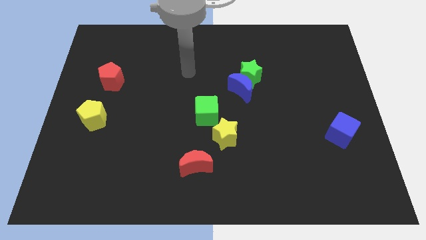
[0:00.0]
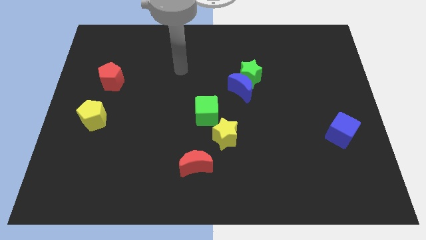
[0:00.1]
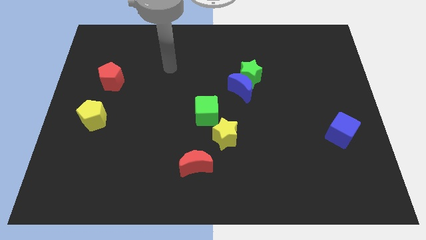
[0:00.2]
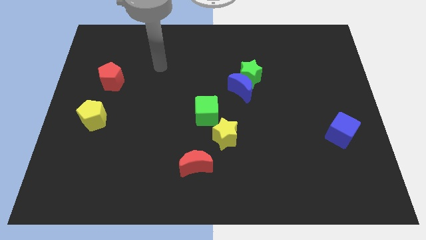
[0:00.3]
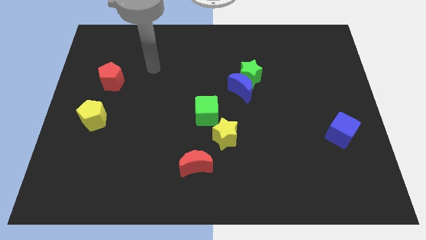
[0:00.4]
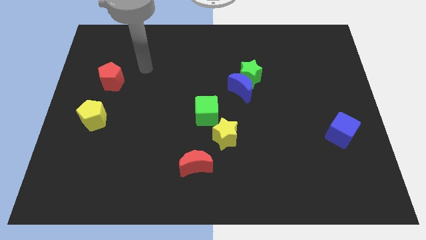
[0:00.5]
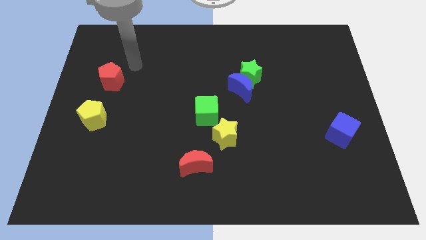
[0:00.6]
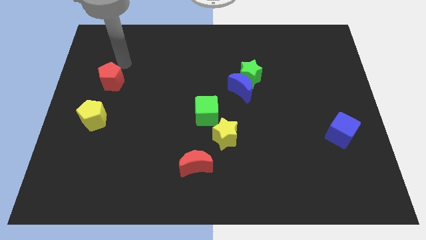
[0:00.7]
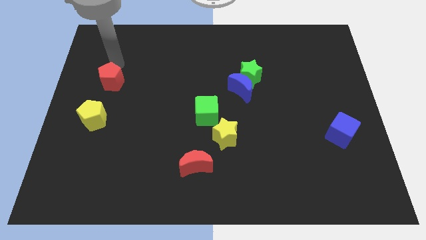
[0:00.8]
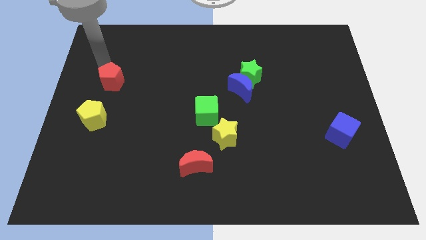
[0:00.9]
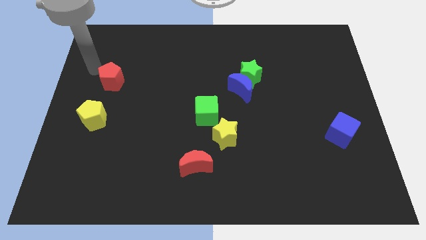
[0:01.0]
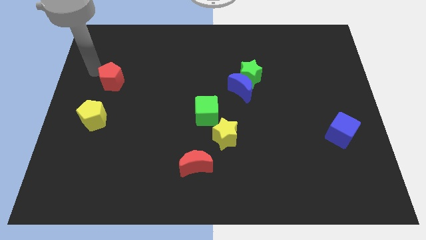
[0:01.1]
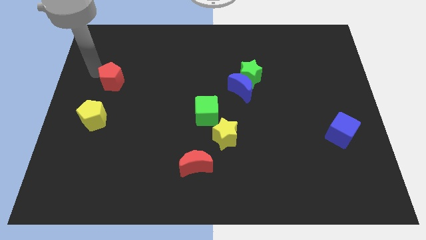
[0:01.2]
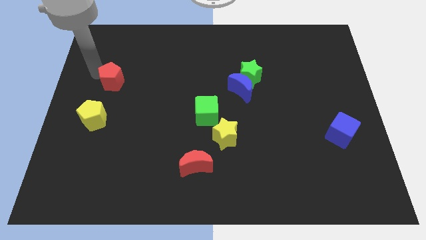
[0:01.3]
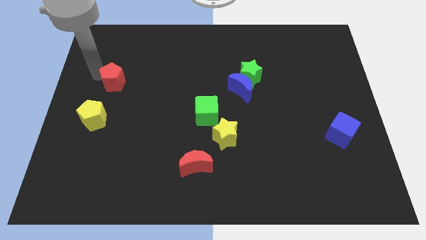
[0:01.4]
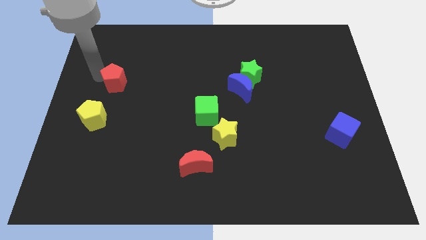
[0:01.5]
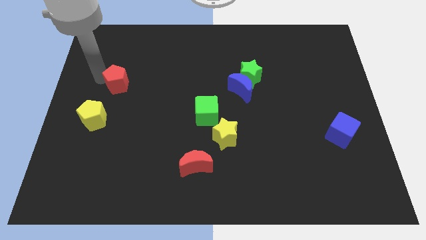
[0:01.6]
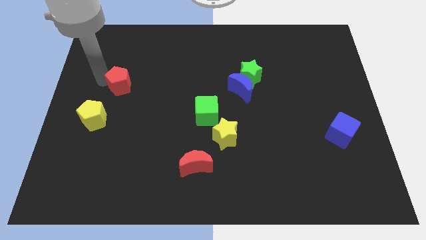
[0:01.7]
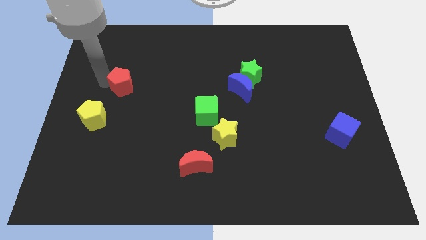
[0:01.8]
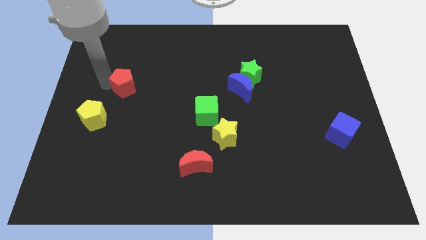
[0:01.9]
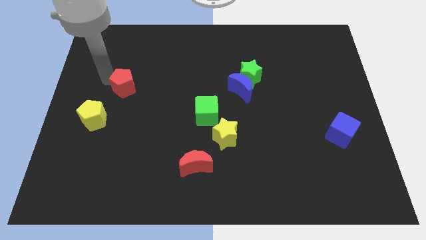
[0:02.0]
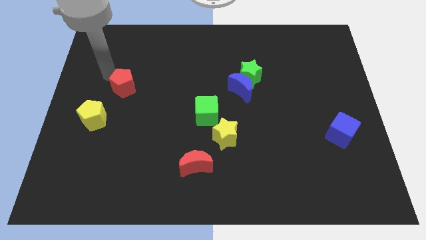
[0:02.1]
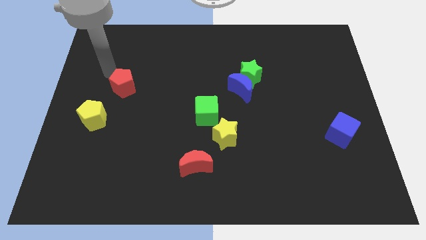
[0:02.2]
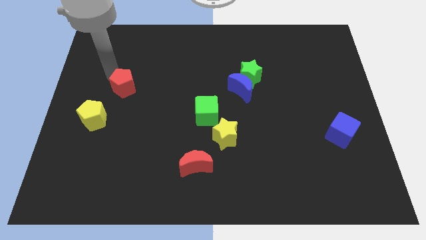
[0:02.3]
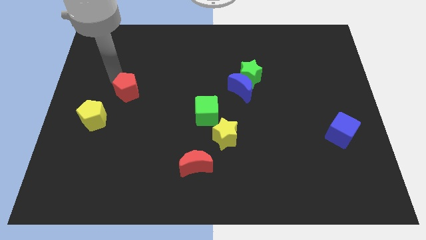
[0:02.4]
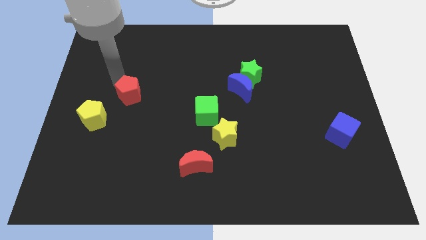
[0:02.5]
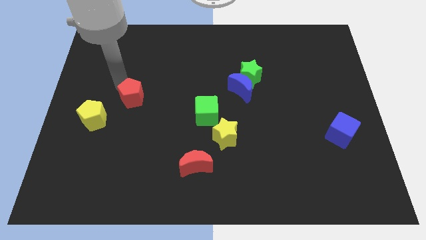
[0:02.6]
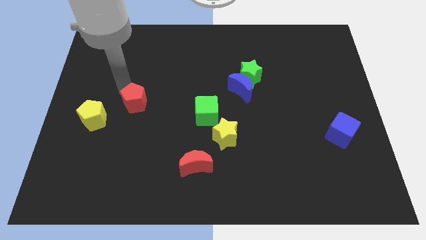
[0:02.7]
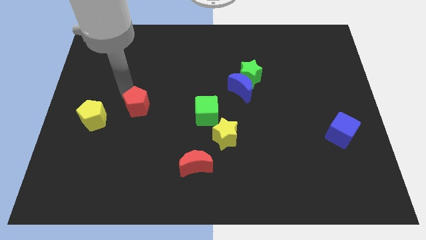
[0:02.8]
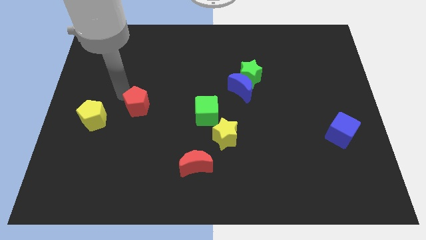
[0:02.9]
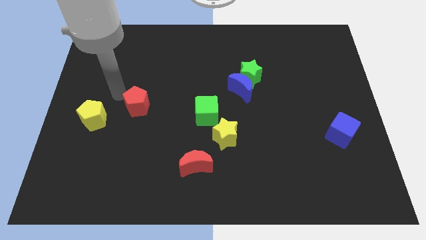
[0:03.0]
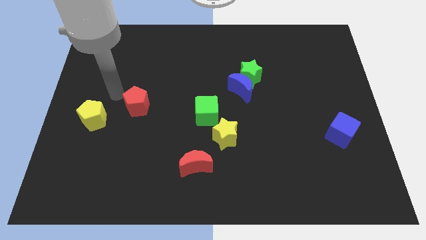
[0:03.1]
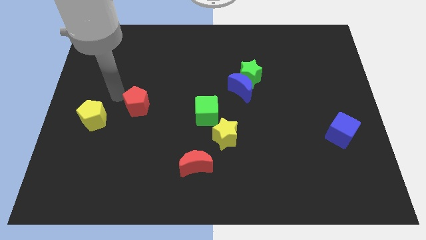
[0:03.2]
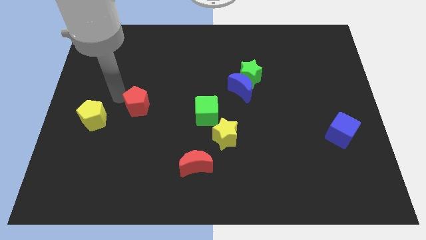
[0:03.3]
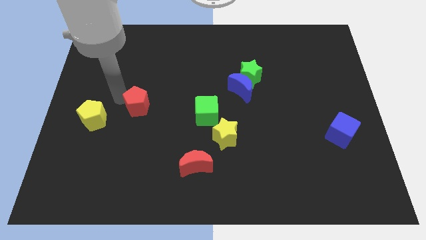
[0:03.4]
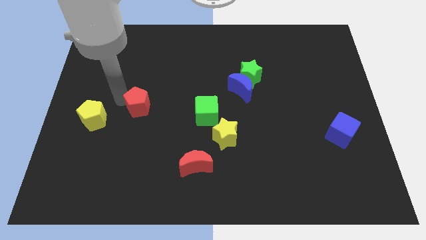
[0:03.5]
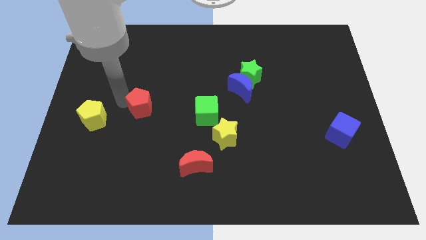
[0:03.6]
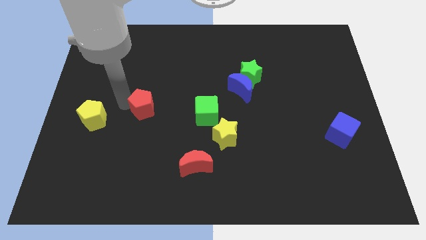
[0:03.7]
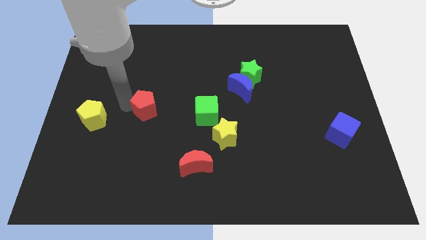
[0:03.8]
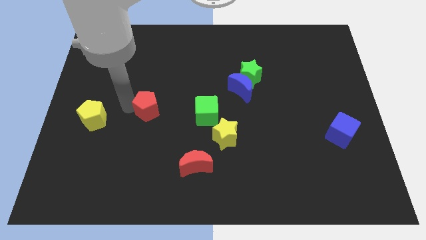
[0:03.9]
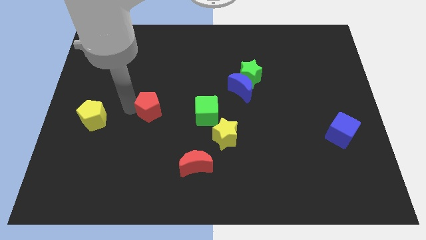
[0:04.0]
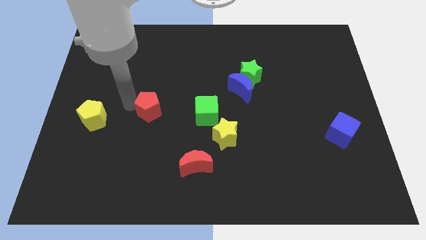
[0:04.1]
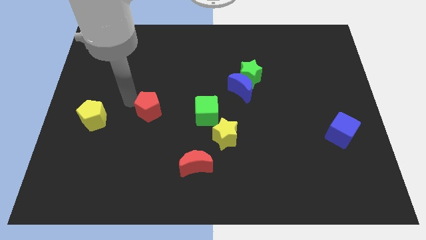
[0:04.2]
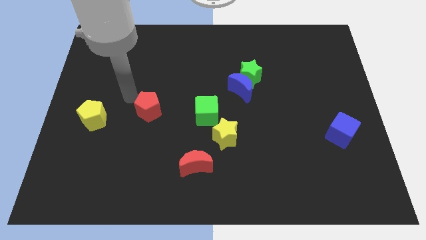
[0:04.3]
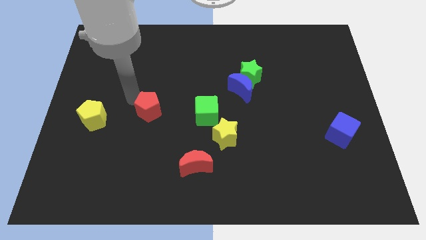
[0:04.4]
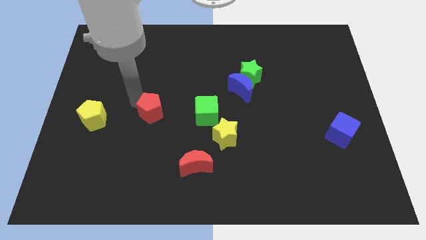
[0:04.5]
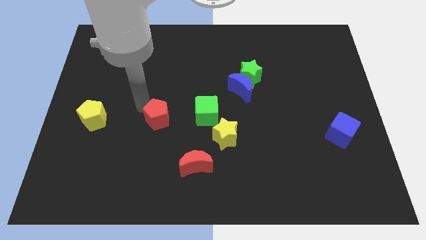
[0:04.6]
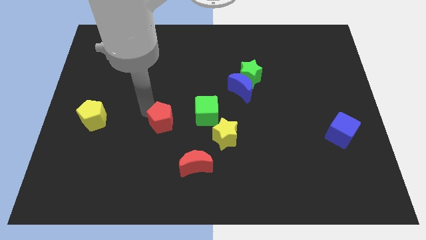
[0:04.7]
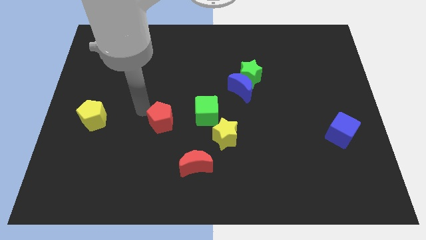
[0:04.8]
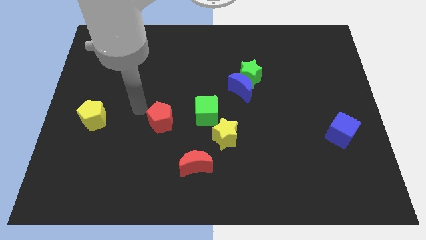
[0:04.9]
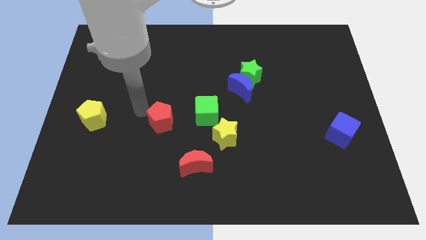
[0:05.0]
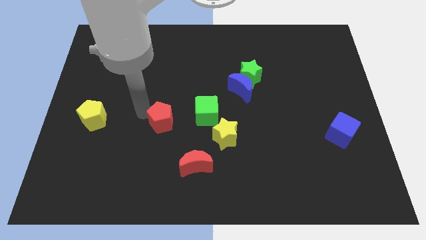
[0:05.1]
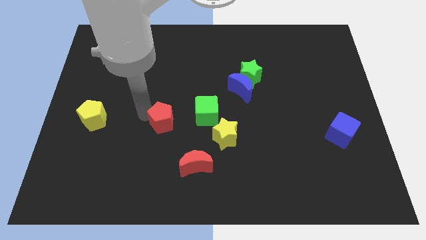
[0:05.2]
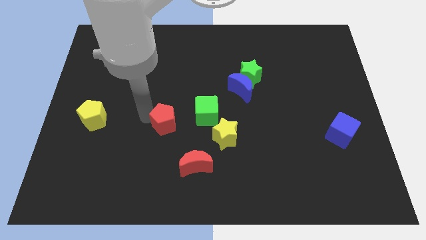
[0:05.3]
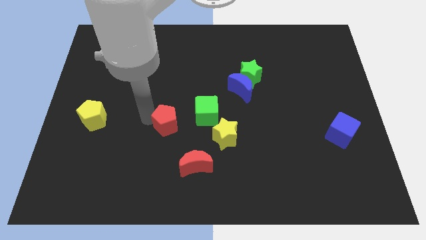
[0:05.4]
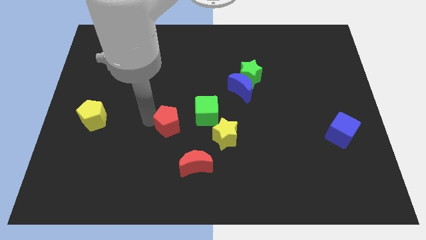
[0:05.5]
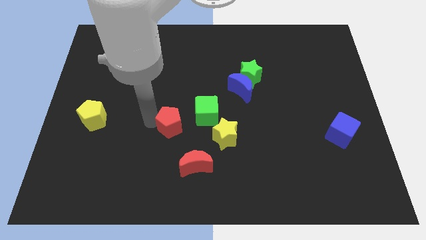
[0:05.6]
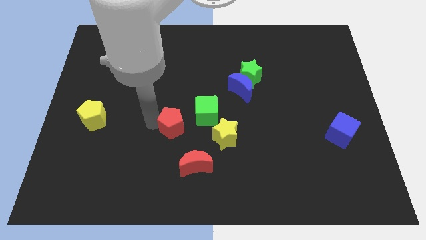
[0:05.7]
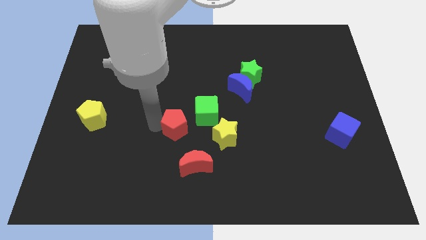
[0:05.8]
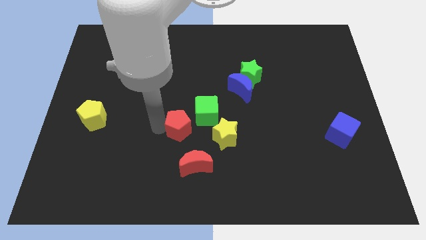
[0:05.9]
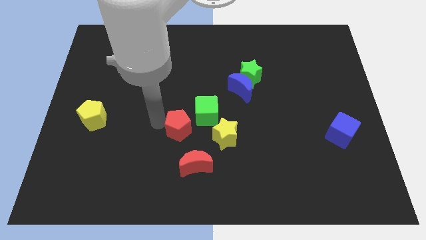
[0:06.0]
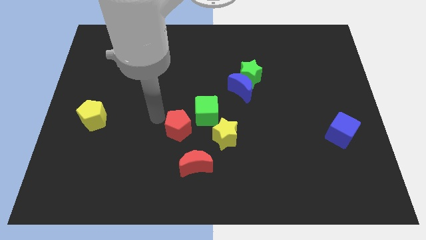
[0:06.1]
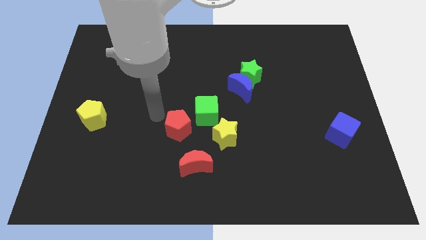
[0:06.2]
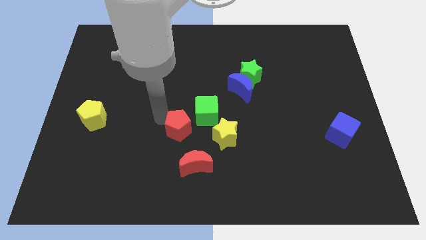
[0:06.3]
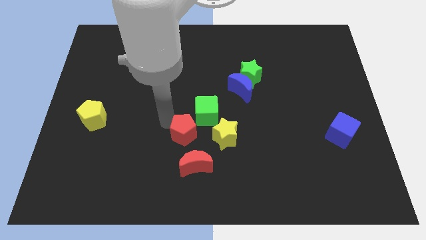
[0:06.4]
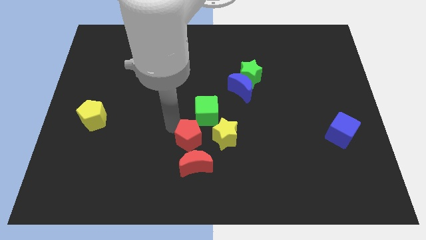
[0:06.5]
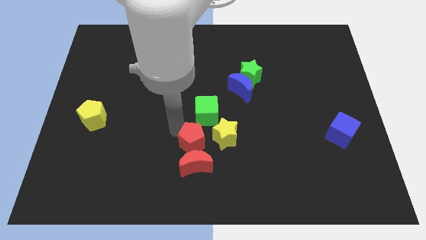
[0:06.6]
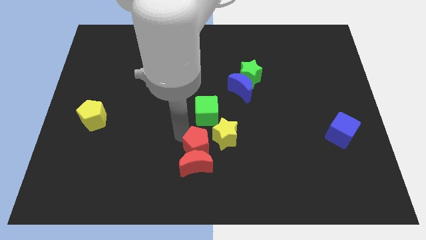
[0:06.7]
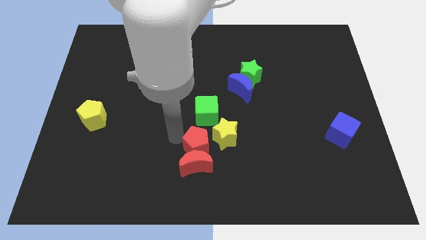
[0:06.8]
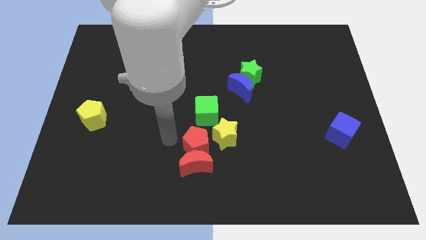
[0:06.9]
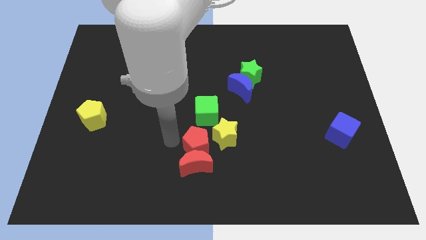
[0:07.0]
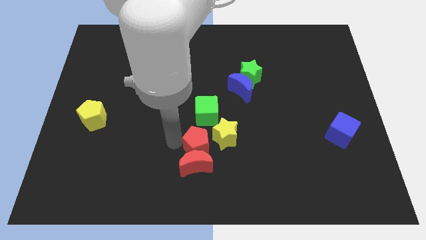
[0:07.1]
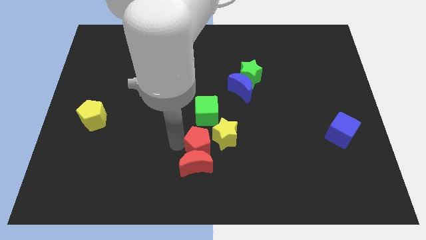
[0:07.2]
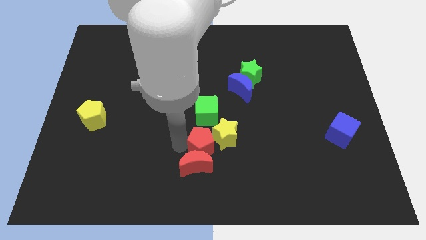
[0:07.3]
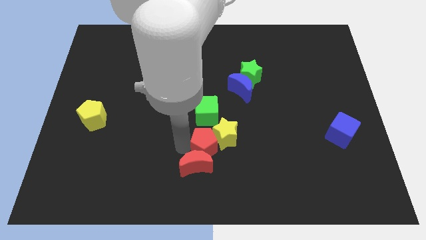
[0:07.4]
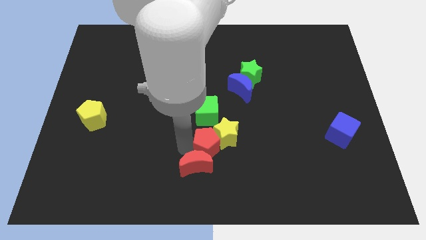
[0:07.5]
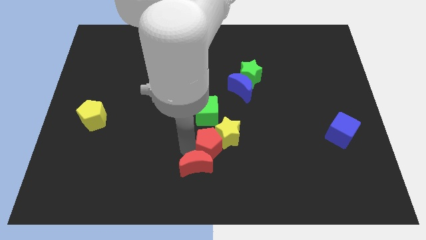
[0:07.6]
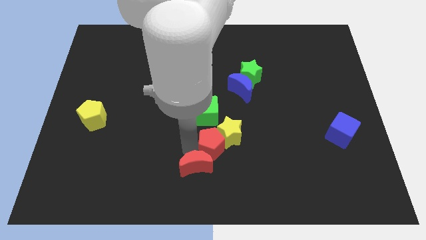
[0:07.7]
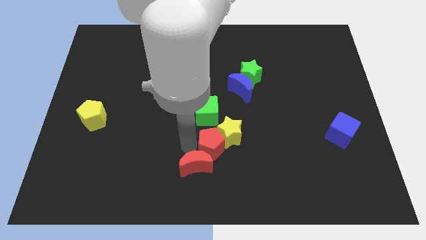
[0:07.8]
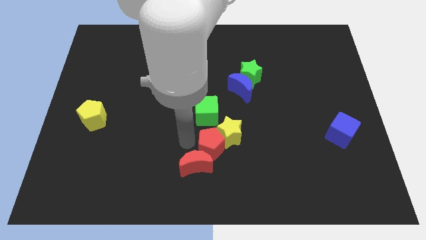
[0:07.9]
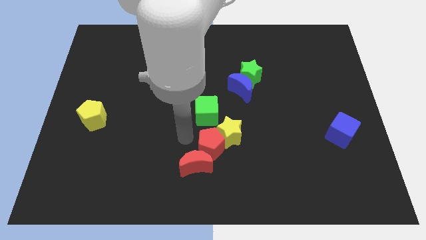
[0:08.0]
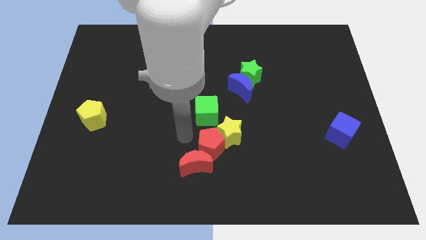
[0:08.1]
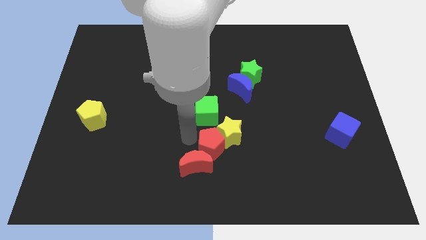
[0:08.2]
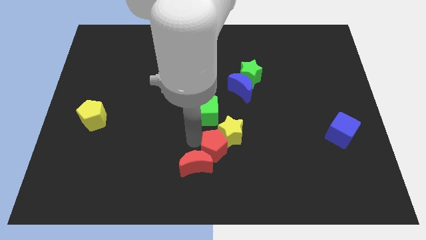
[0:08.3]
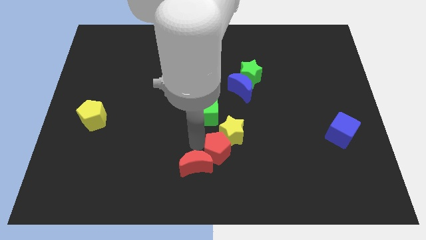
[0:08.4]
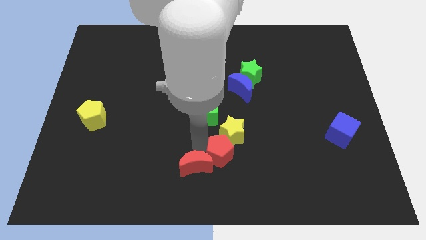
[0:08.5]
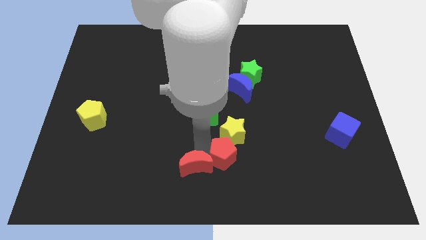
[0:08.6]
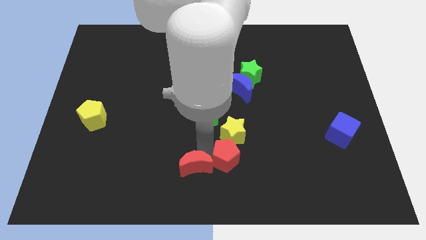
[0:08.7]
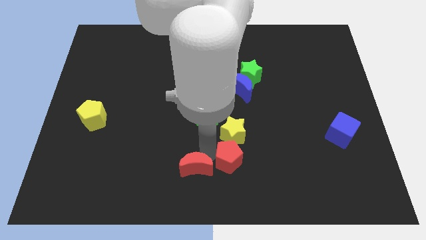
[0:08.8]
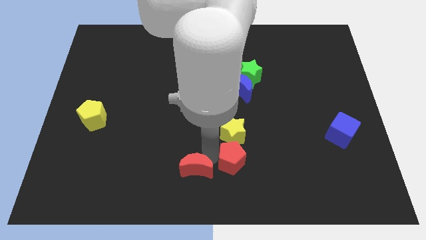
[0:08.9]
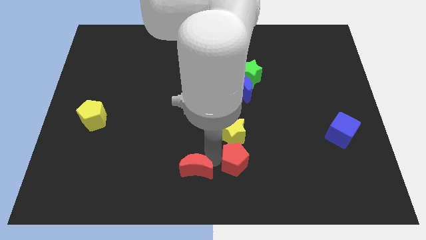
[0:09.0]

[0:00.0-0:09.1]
put the red pentagon to the bottom right side of the yellow star
